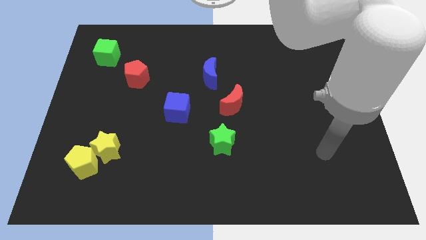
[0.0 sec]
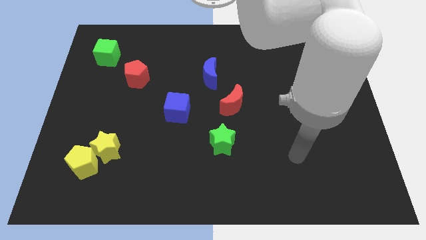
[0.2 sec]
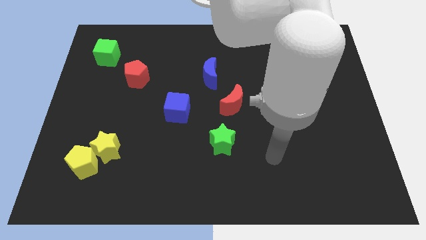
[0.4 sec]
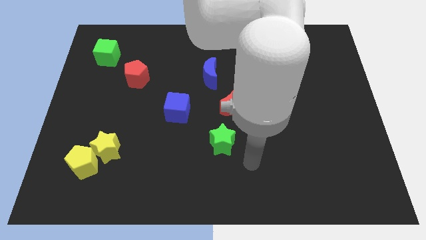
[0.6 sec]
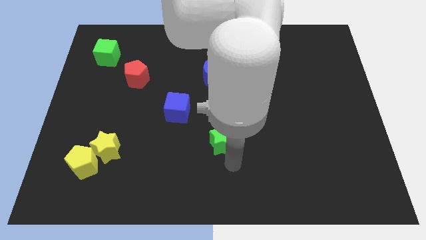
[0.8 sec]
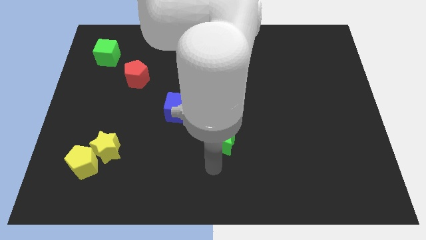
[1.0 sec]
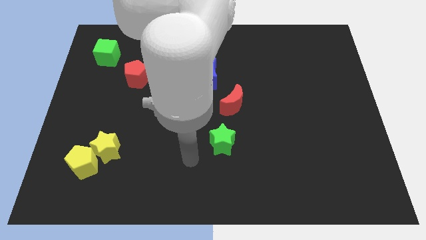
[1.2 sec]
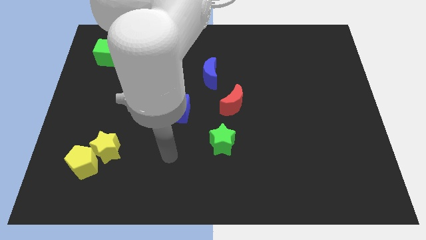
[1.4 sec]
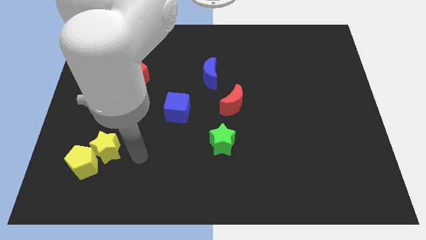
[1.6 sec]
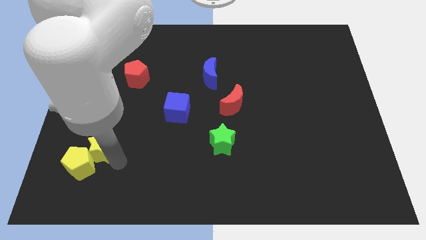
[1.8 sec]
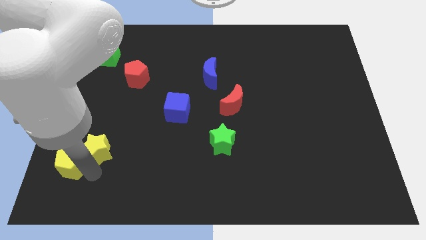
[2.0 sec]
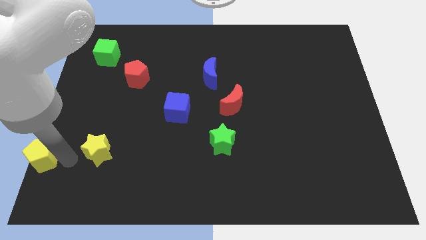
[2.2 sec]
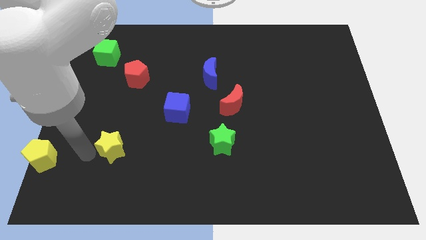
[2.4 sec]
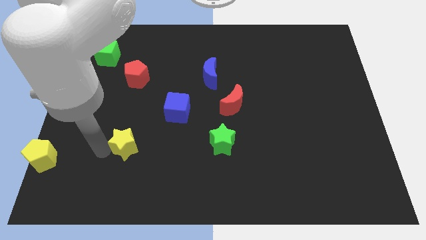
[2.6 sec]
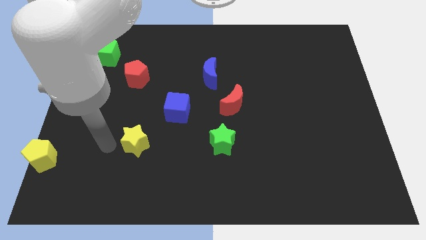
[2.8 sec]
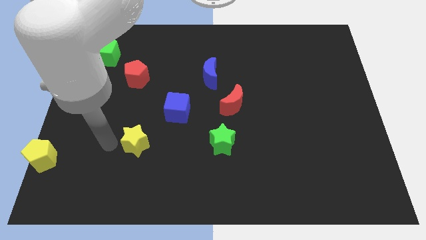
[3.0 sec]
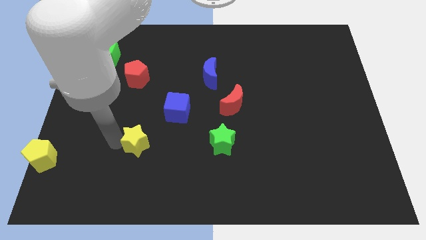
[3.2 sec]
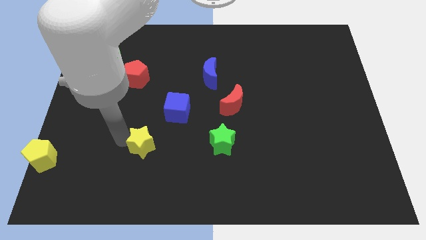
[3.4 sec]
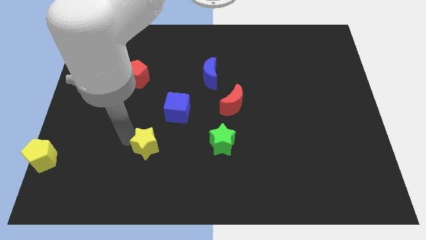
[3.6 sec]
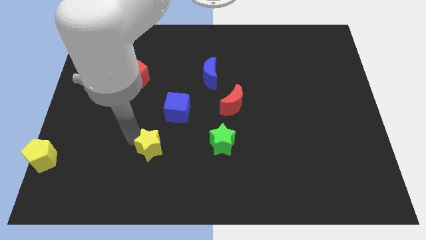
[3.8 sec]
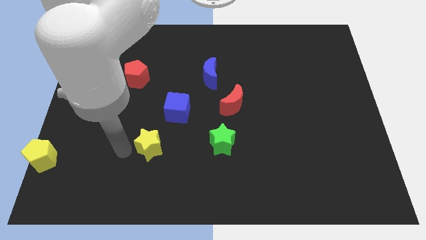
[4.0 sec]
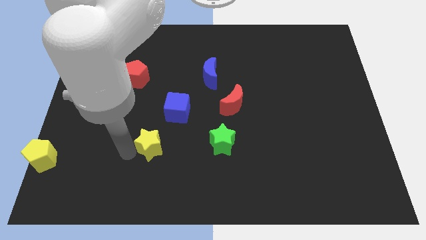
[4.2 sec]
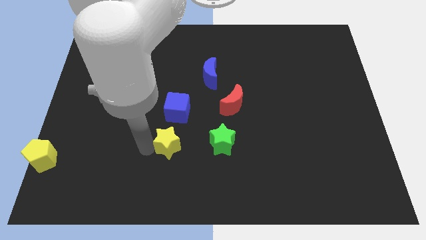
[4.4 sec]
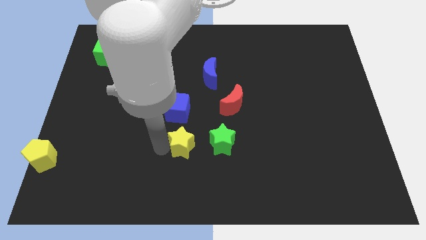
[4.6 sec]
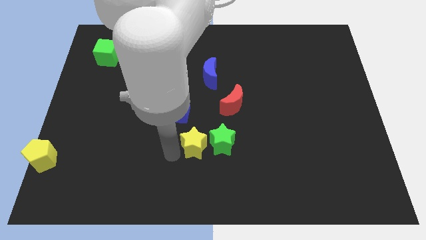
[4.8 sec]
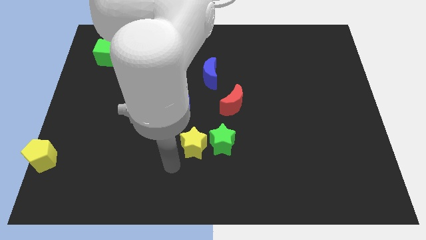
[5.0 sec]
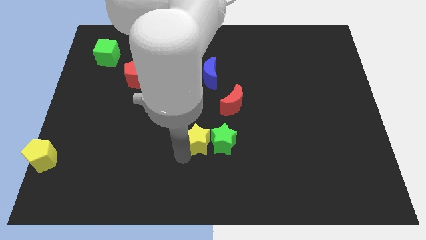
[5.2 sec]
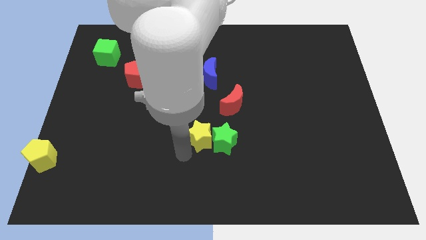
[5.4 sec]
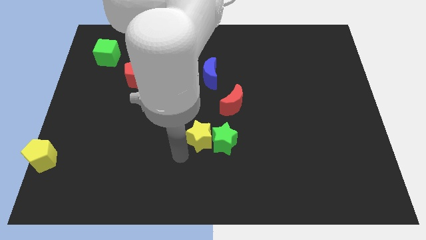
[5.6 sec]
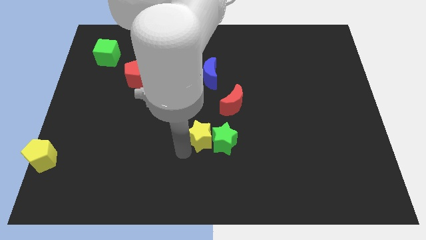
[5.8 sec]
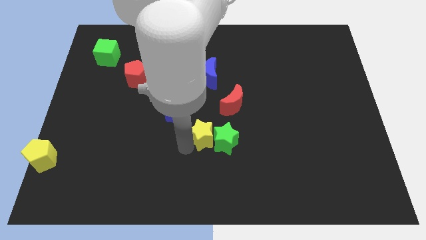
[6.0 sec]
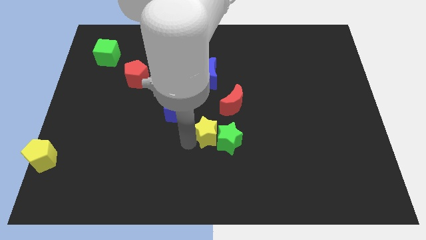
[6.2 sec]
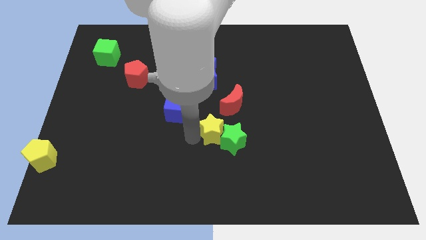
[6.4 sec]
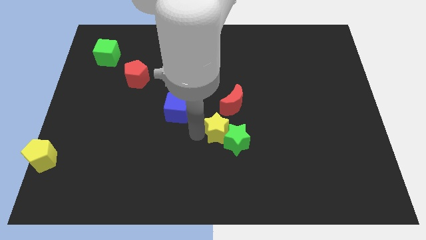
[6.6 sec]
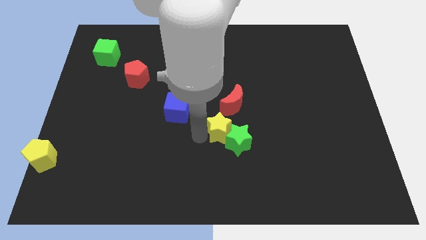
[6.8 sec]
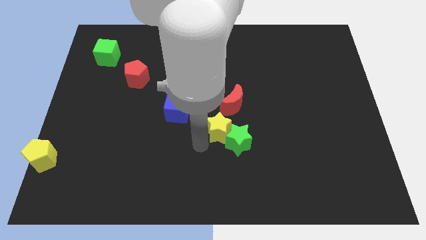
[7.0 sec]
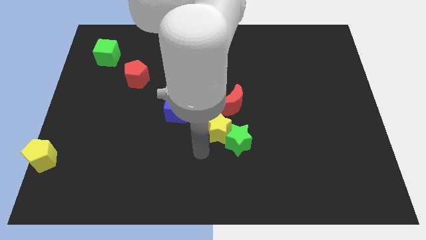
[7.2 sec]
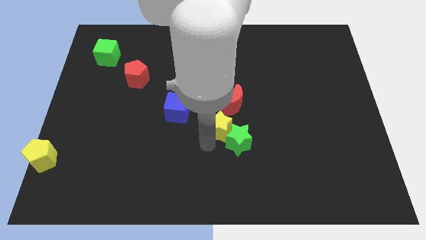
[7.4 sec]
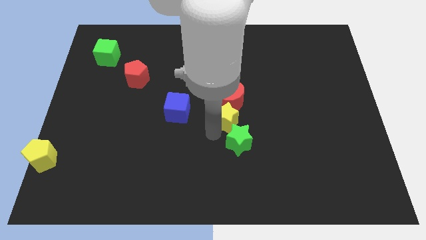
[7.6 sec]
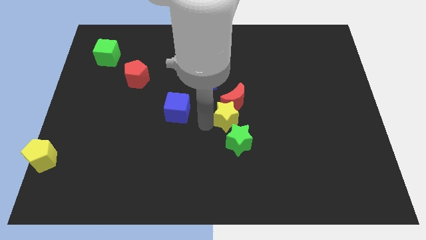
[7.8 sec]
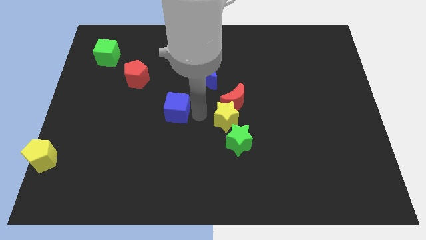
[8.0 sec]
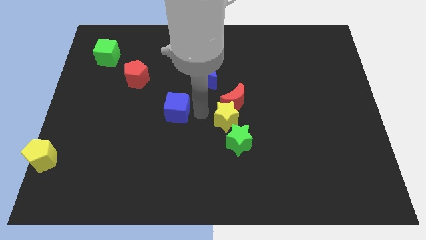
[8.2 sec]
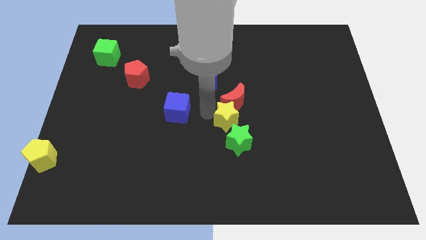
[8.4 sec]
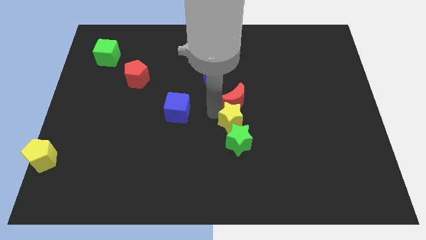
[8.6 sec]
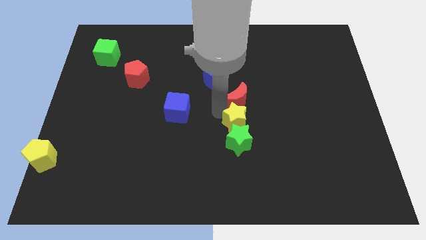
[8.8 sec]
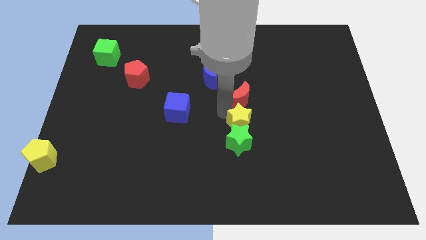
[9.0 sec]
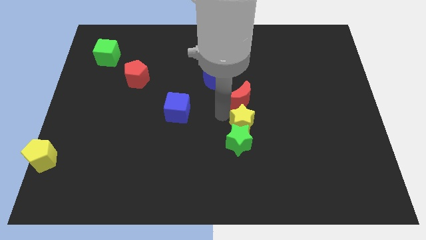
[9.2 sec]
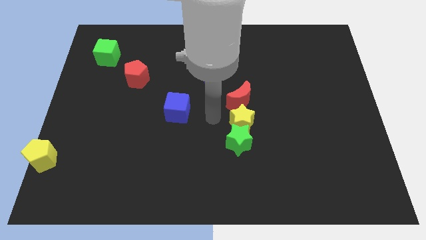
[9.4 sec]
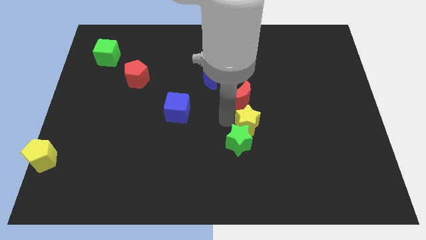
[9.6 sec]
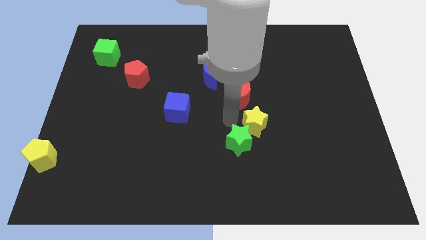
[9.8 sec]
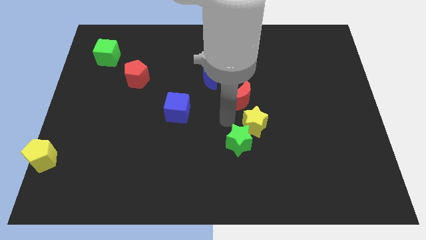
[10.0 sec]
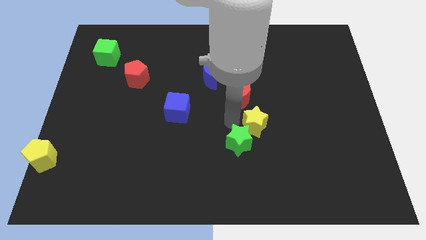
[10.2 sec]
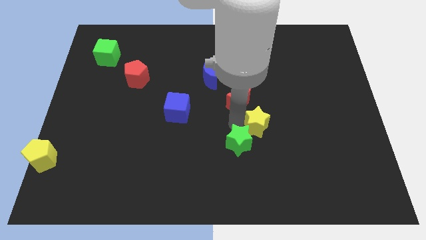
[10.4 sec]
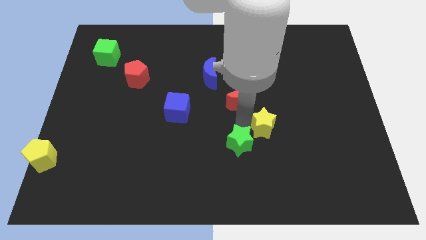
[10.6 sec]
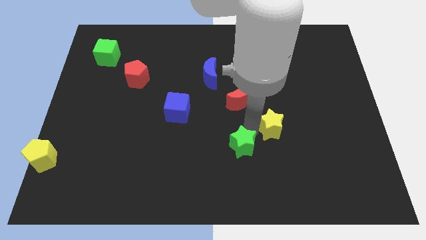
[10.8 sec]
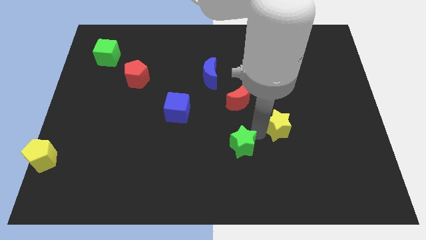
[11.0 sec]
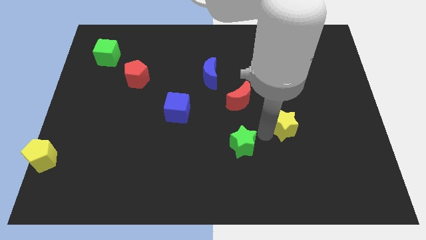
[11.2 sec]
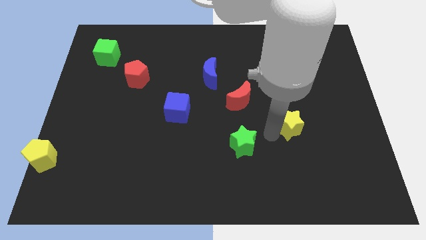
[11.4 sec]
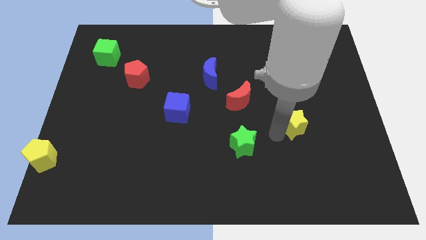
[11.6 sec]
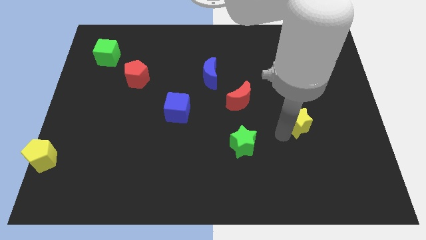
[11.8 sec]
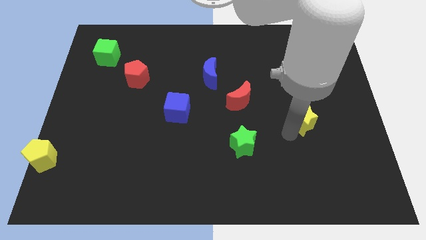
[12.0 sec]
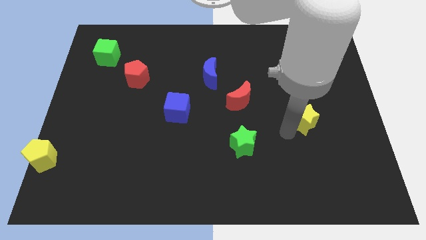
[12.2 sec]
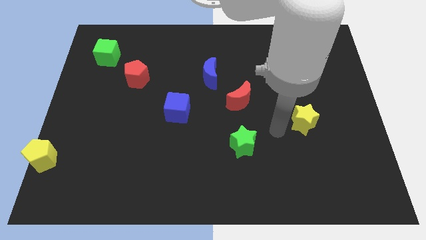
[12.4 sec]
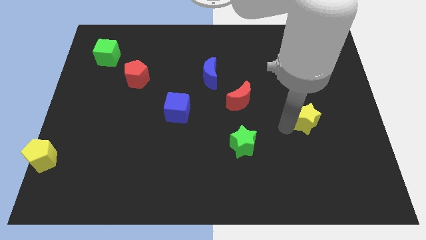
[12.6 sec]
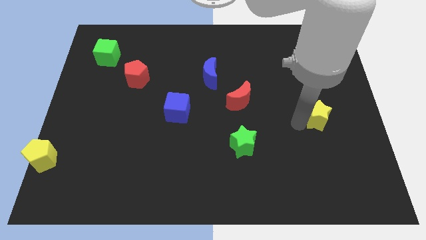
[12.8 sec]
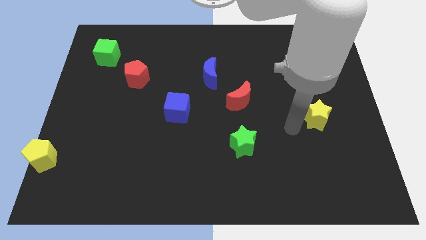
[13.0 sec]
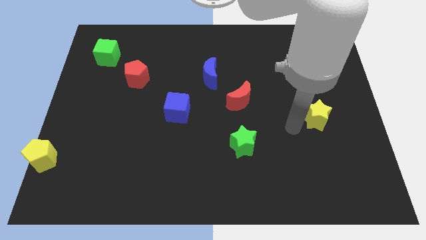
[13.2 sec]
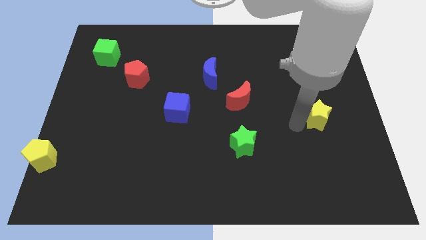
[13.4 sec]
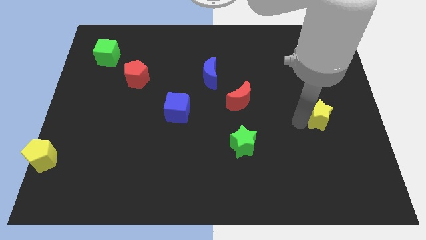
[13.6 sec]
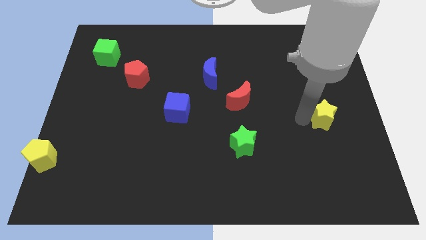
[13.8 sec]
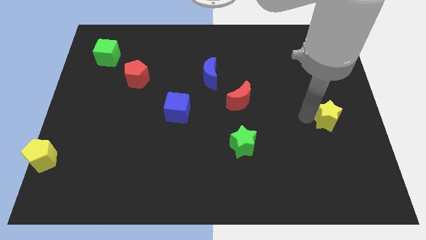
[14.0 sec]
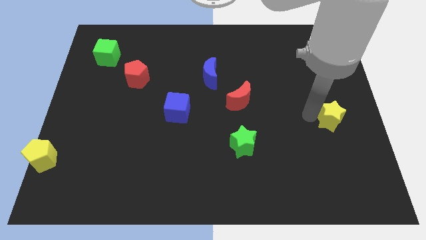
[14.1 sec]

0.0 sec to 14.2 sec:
slide the yellow star to the center right
